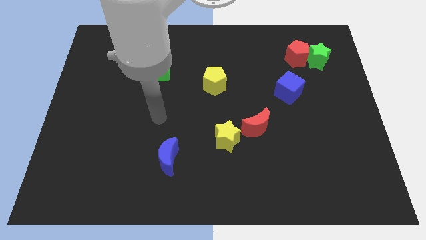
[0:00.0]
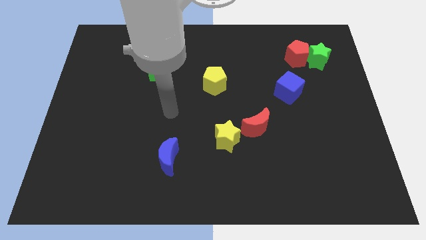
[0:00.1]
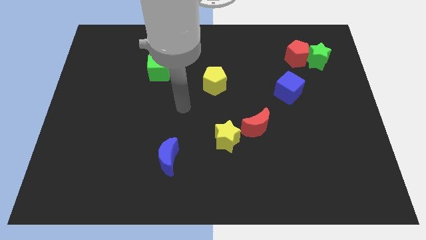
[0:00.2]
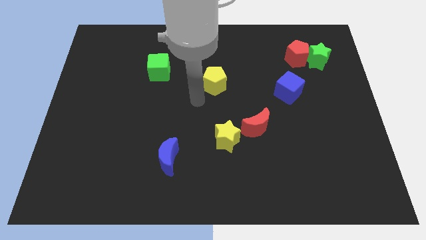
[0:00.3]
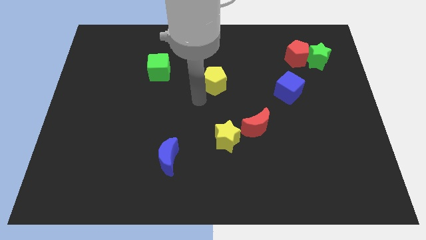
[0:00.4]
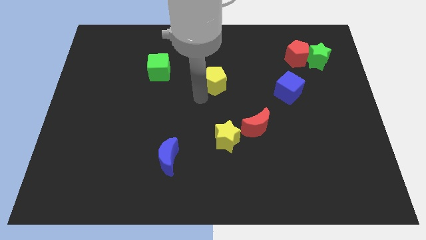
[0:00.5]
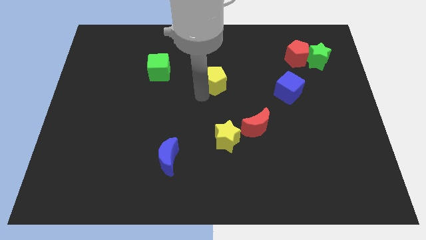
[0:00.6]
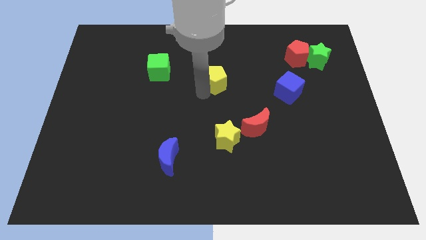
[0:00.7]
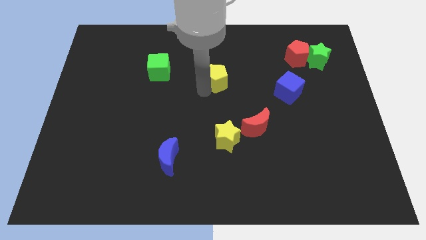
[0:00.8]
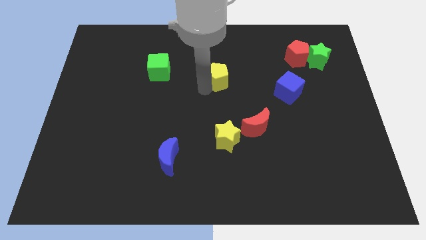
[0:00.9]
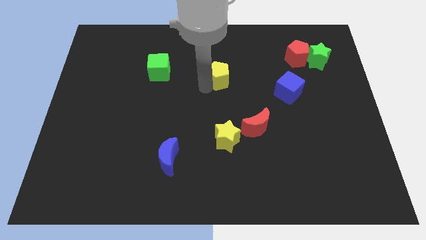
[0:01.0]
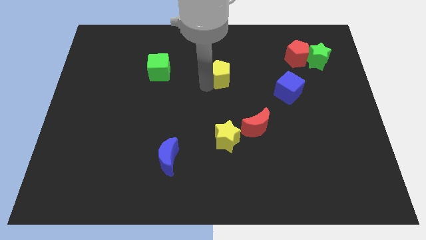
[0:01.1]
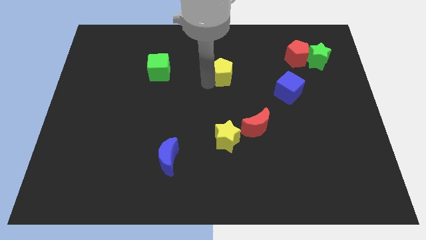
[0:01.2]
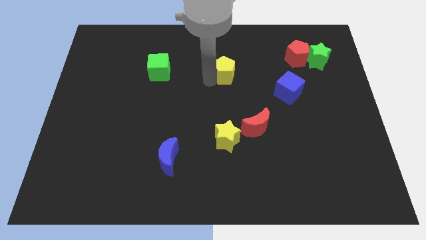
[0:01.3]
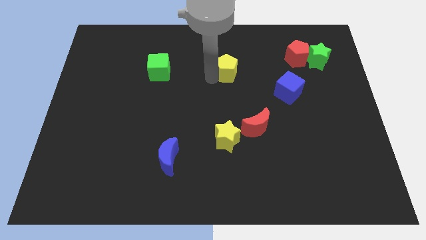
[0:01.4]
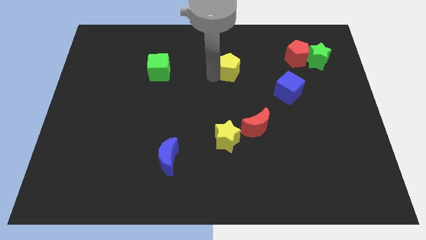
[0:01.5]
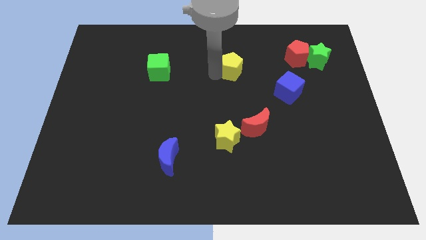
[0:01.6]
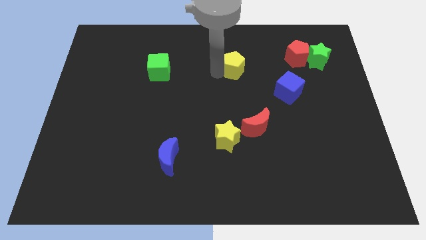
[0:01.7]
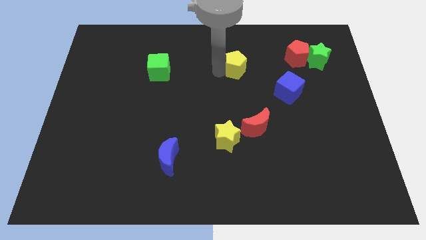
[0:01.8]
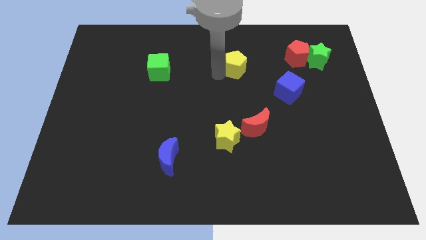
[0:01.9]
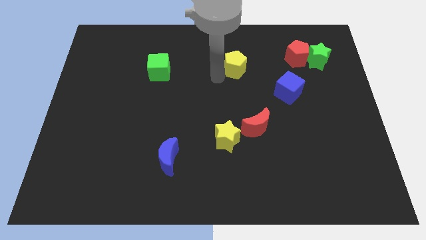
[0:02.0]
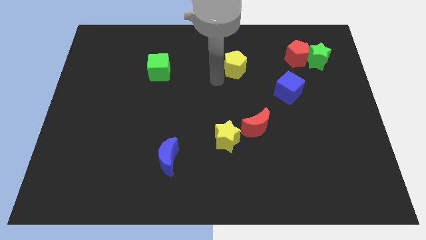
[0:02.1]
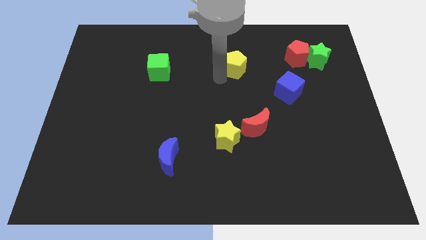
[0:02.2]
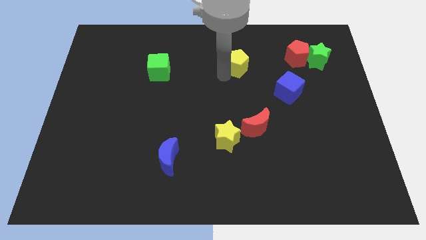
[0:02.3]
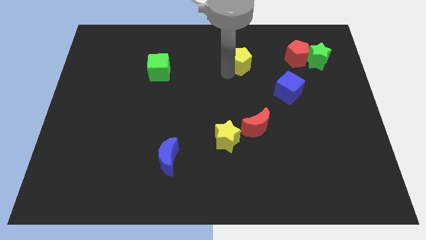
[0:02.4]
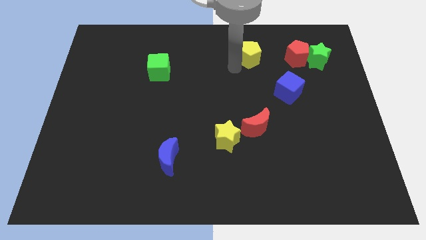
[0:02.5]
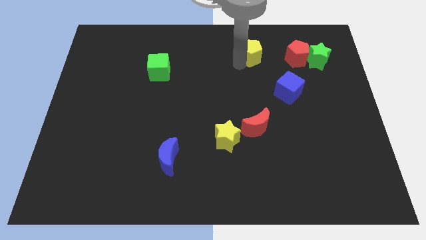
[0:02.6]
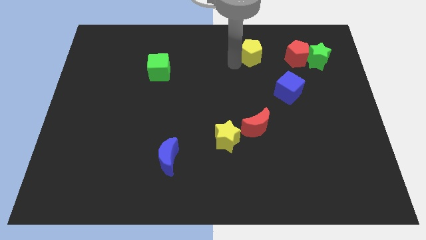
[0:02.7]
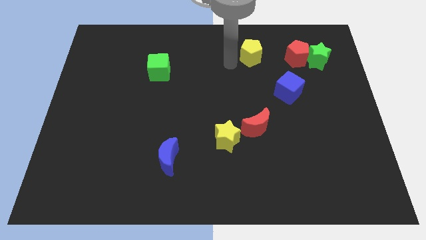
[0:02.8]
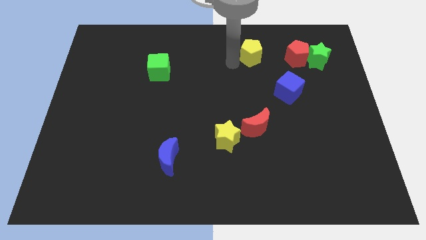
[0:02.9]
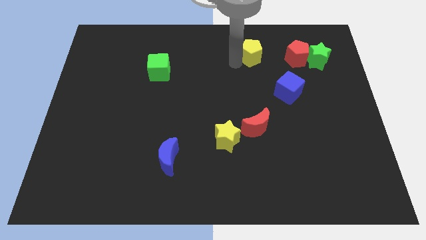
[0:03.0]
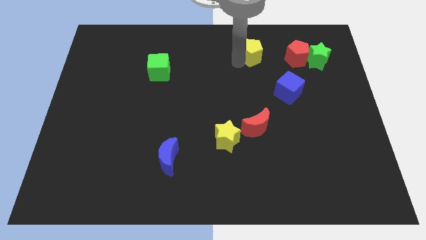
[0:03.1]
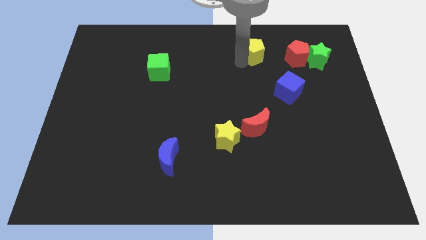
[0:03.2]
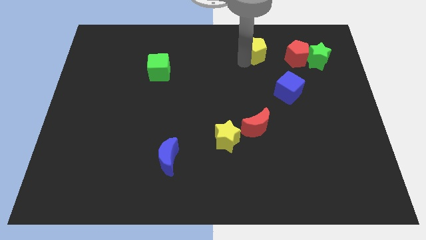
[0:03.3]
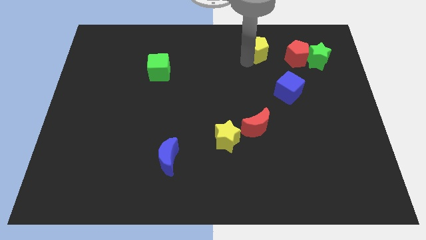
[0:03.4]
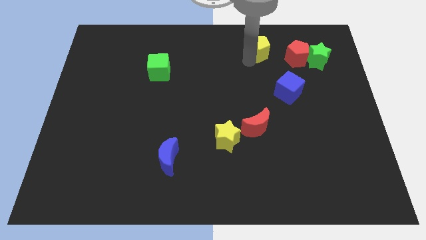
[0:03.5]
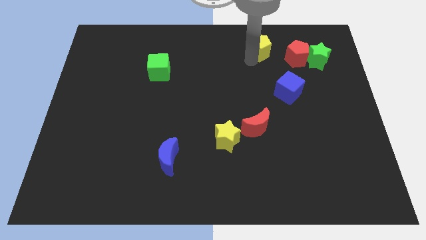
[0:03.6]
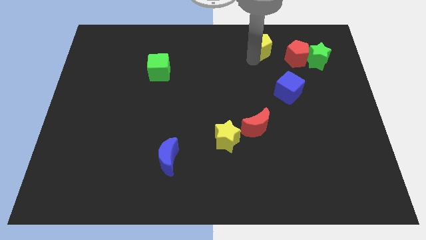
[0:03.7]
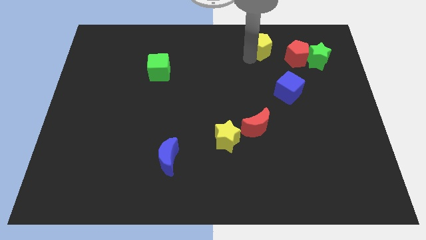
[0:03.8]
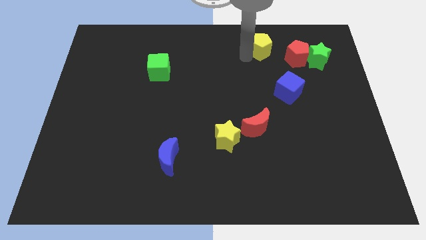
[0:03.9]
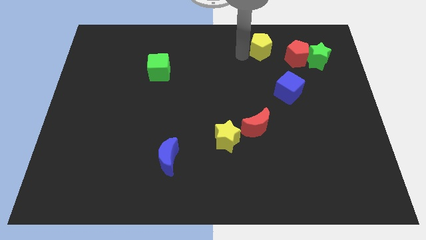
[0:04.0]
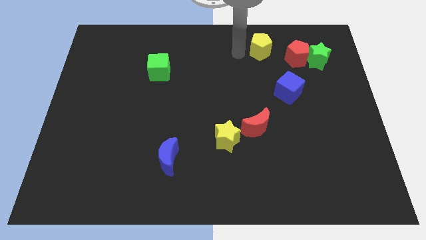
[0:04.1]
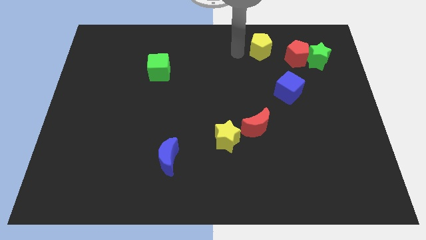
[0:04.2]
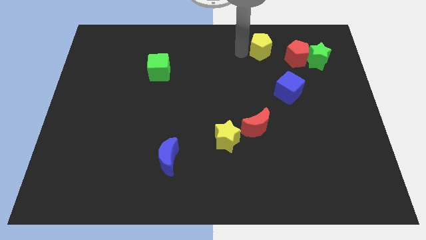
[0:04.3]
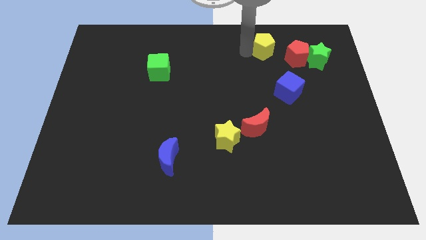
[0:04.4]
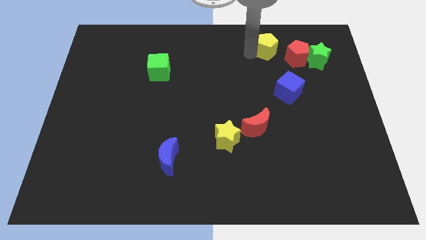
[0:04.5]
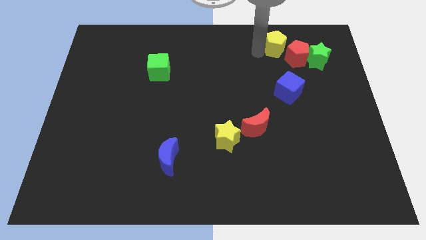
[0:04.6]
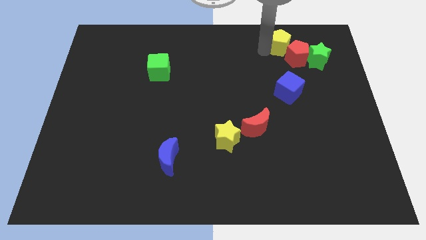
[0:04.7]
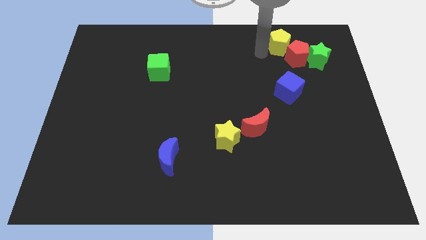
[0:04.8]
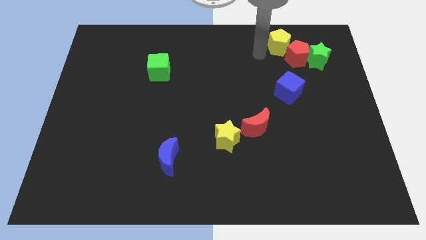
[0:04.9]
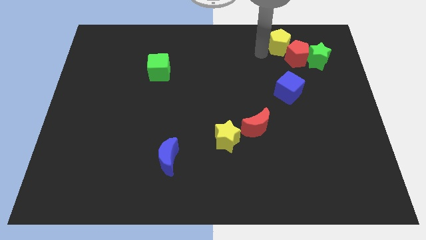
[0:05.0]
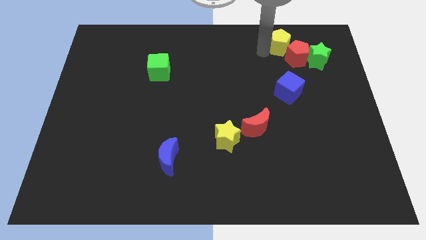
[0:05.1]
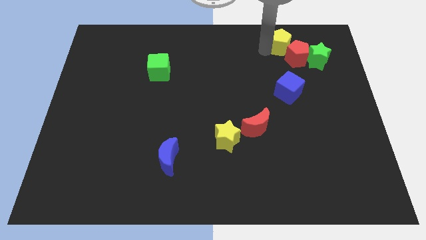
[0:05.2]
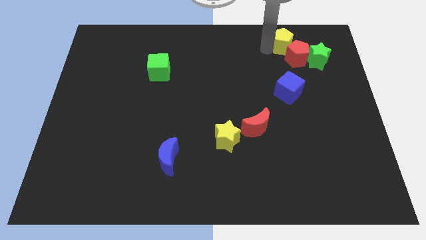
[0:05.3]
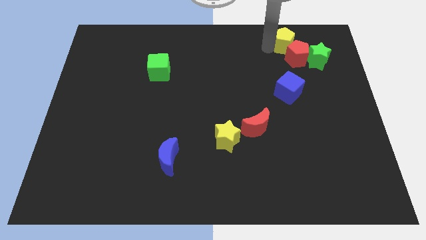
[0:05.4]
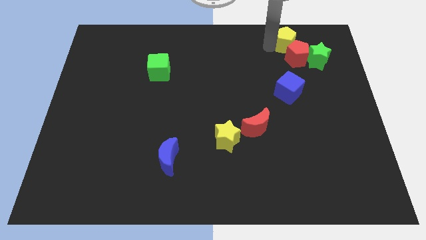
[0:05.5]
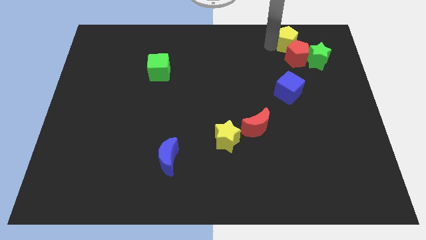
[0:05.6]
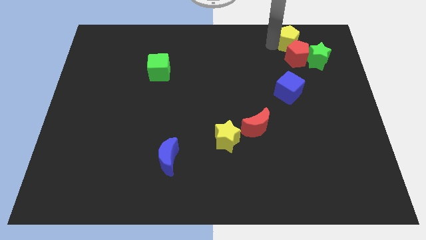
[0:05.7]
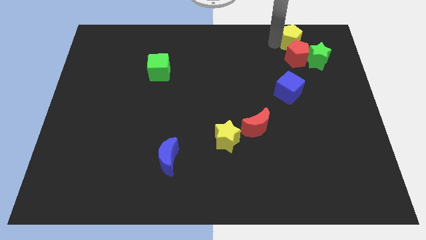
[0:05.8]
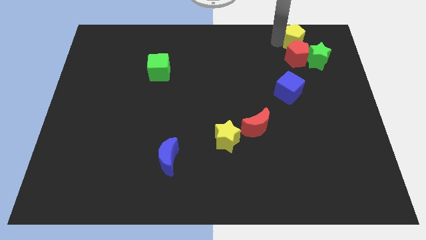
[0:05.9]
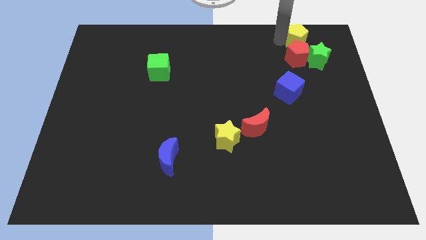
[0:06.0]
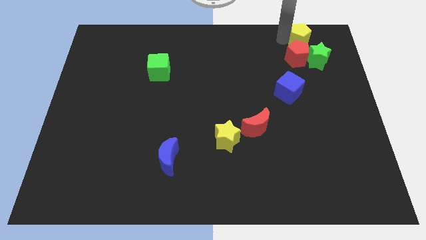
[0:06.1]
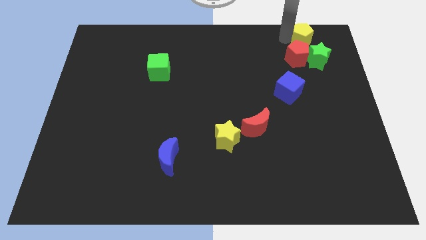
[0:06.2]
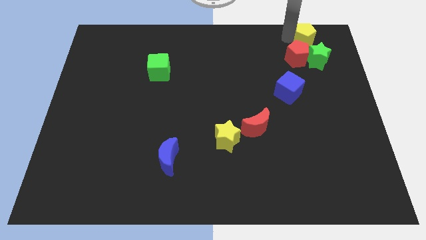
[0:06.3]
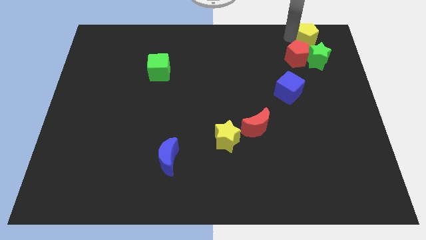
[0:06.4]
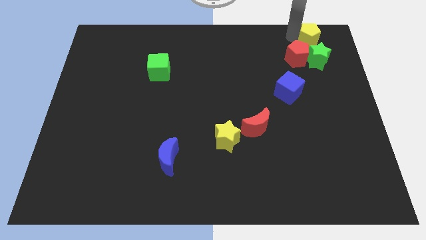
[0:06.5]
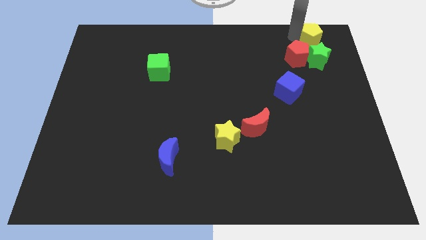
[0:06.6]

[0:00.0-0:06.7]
slide the yellow pentagon to the top right
